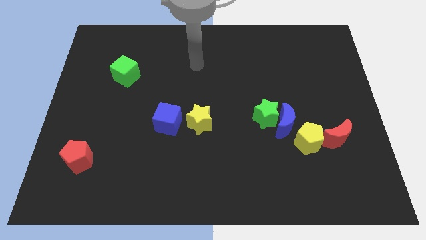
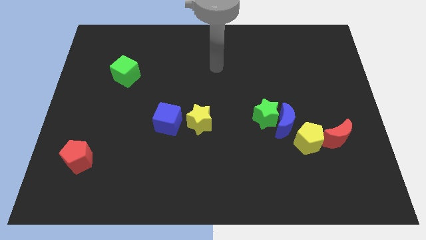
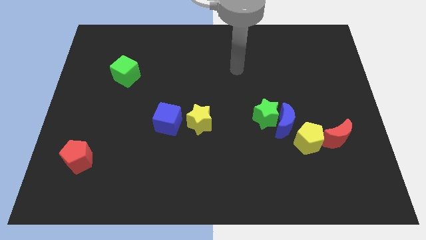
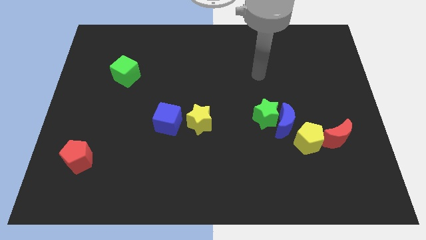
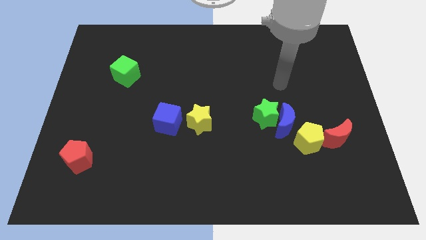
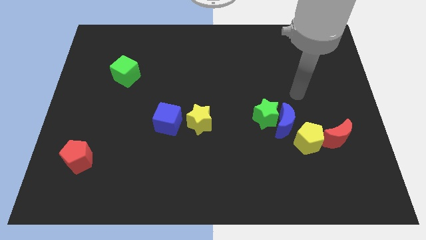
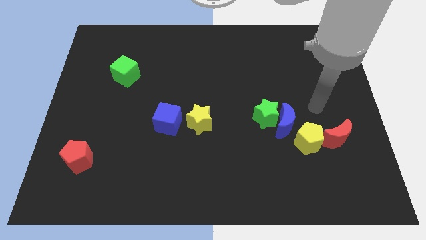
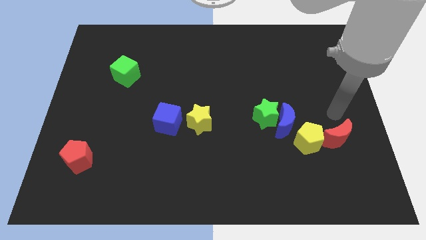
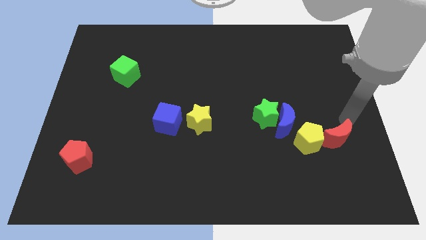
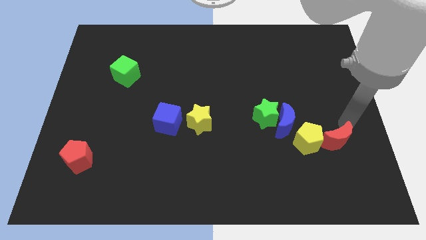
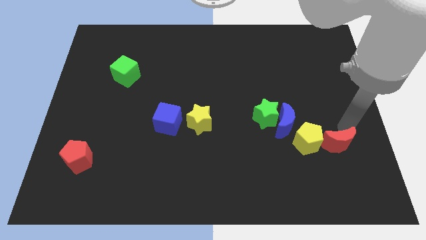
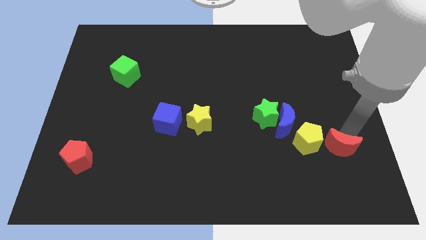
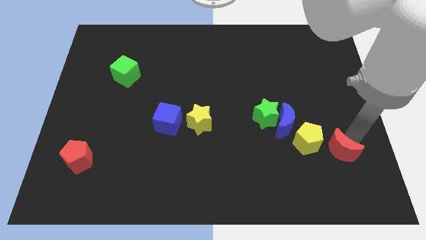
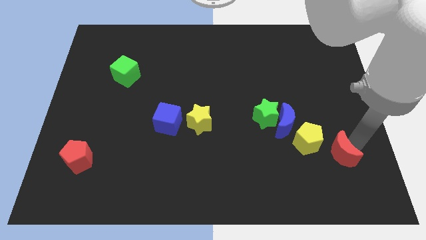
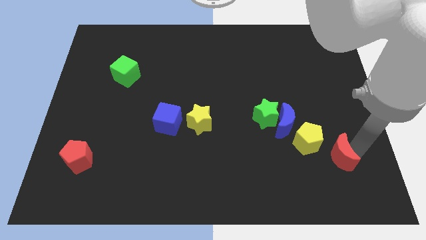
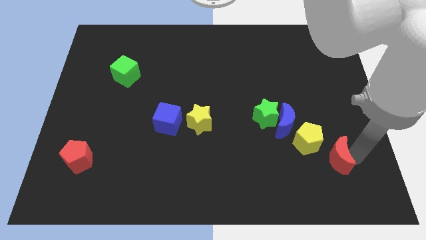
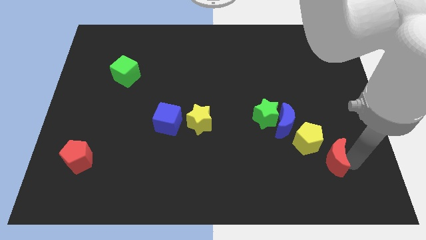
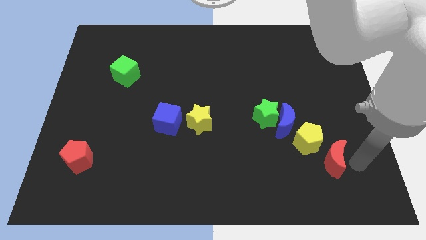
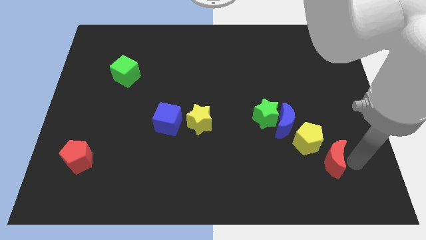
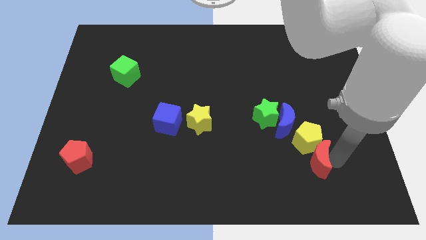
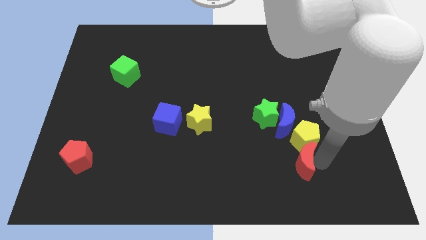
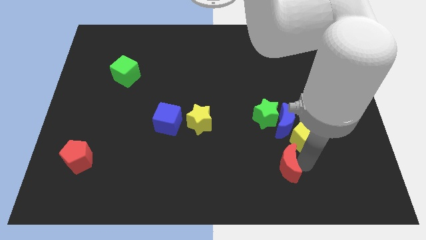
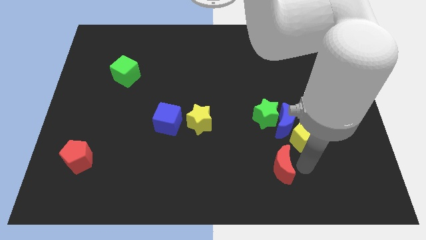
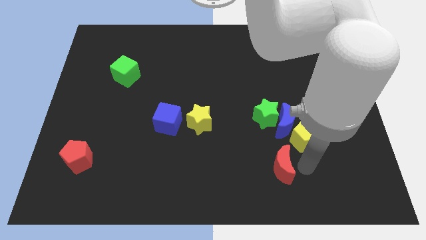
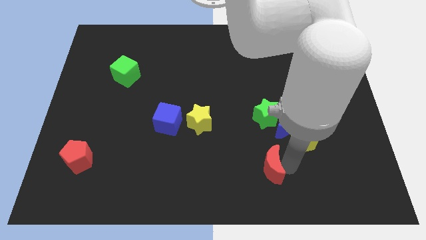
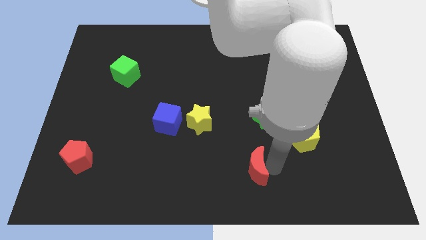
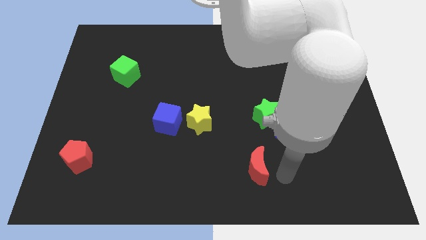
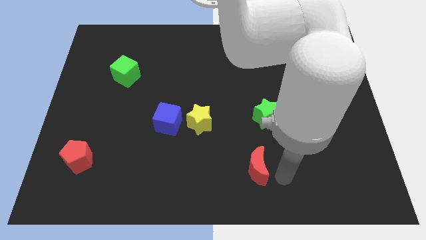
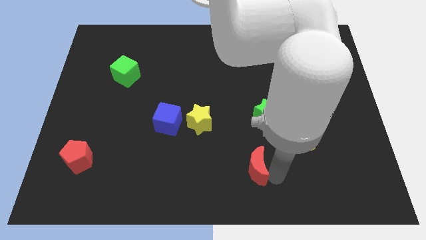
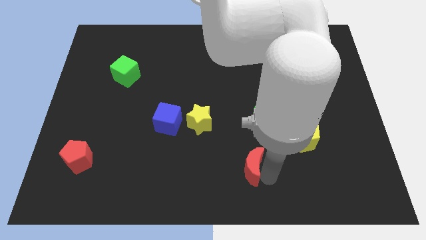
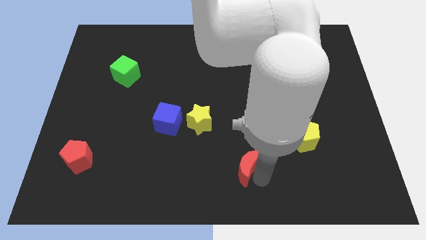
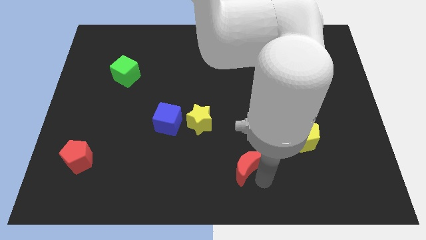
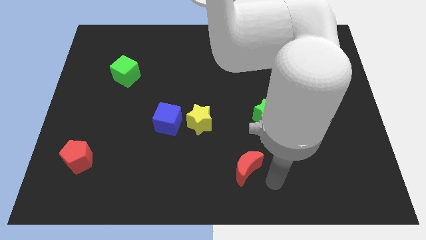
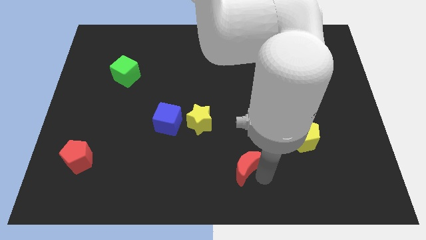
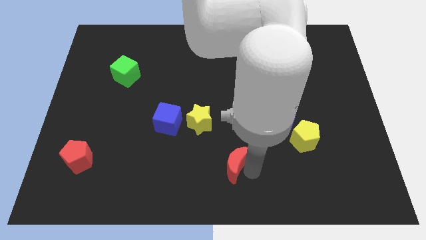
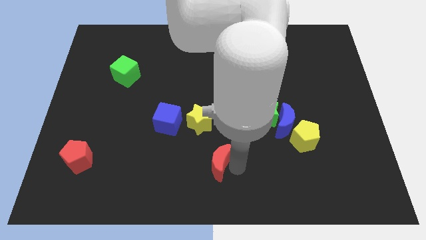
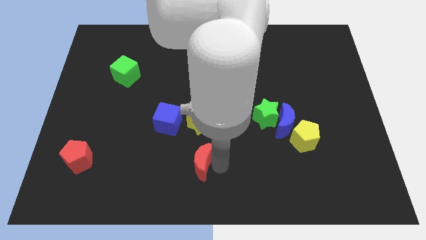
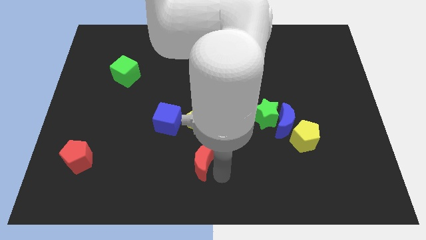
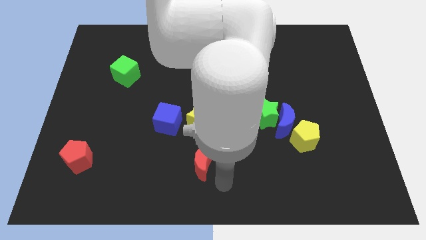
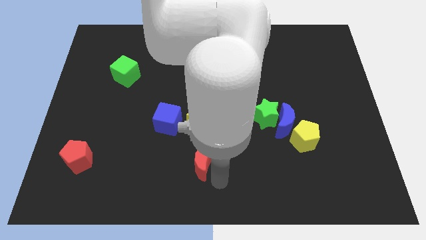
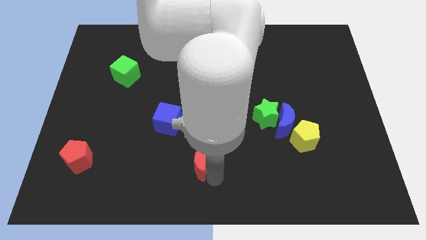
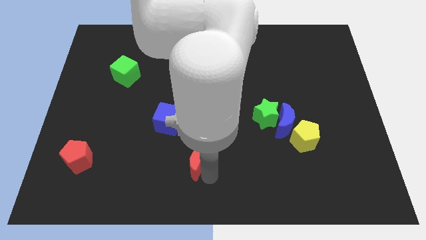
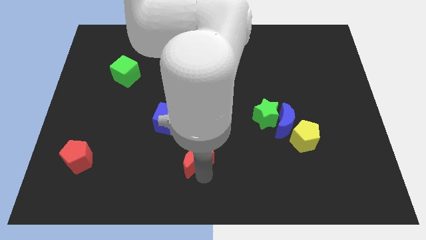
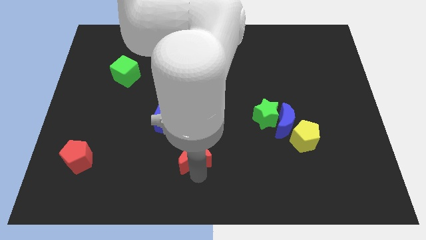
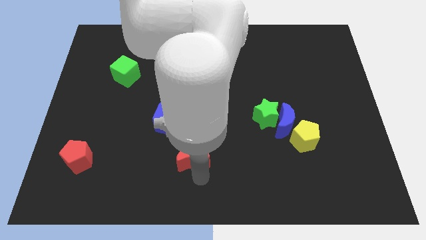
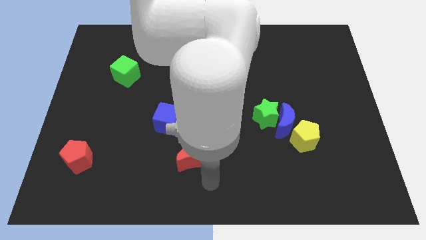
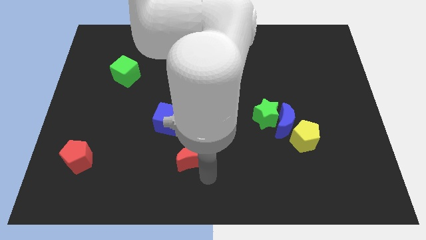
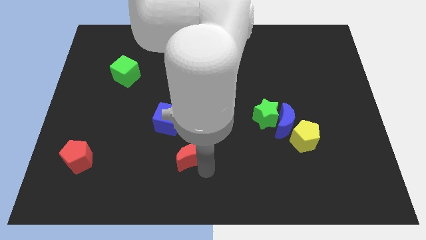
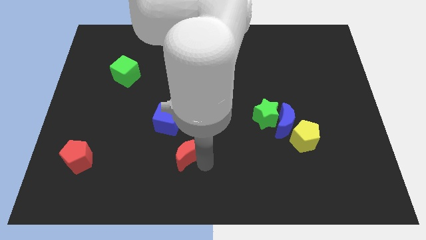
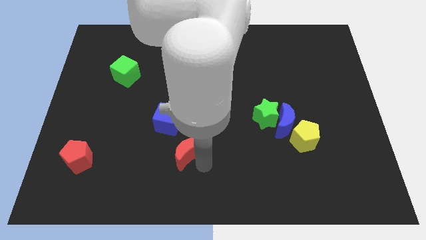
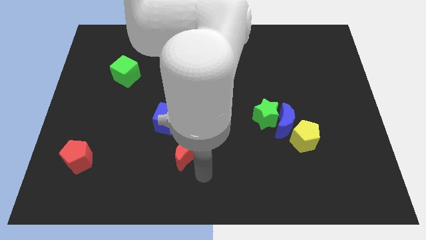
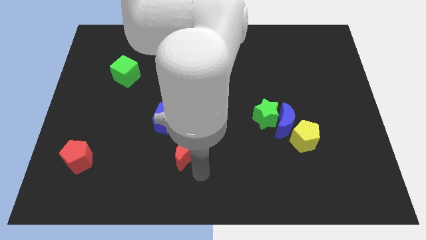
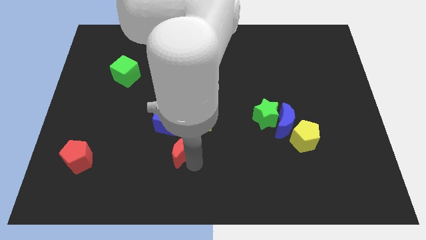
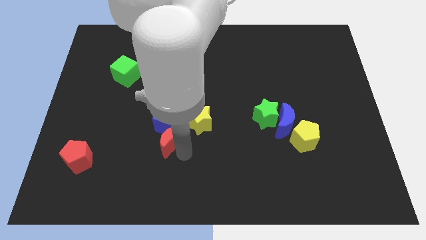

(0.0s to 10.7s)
put the red moon to the blue cube
